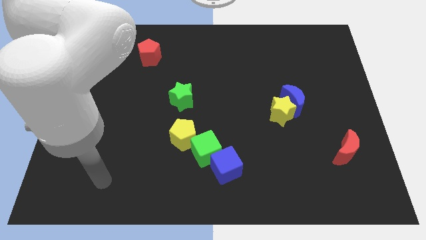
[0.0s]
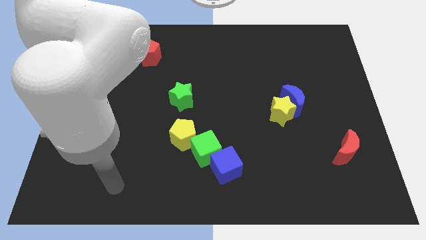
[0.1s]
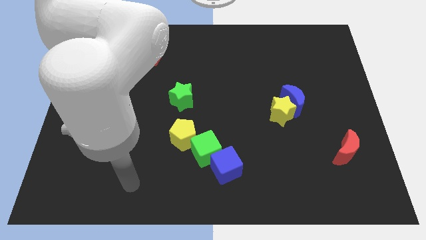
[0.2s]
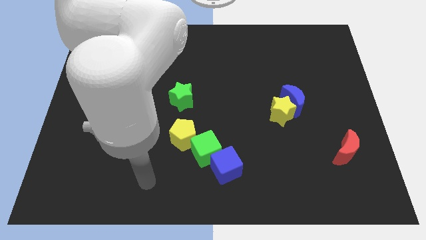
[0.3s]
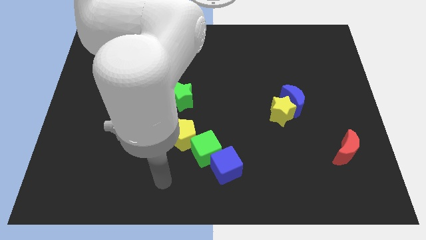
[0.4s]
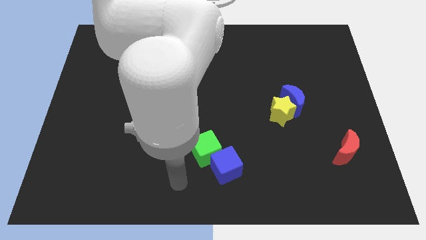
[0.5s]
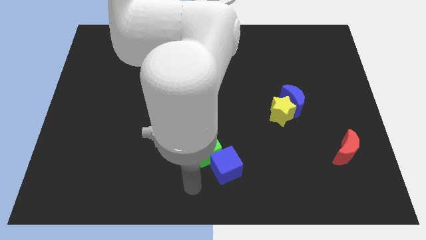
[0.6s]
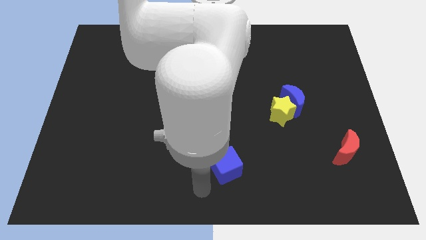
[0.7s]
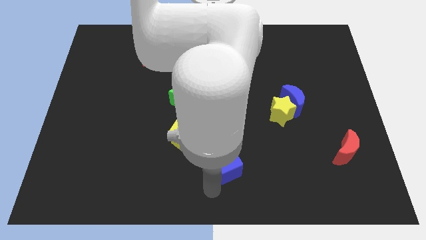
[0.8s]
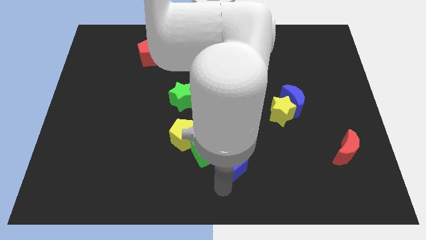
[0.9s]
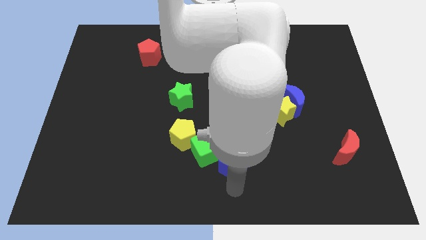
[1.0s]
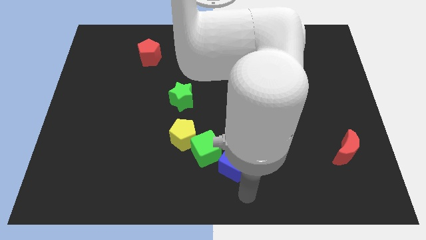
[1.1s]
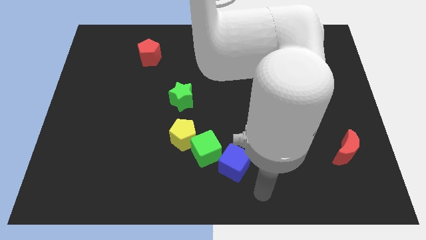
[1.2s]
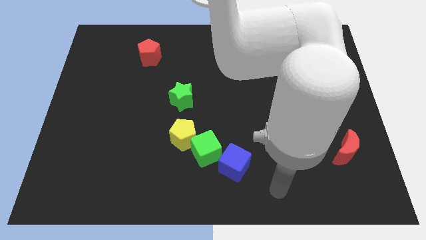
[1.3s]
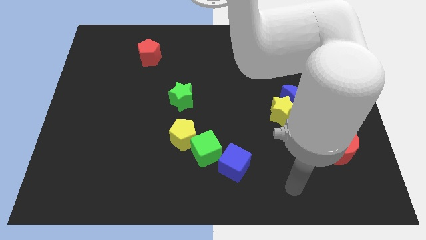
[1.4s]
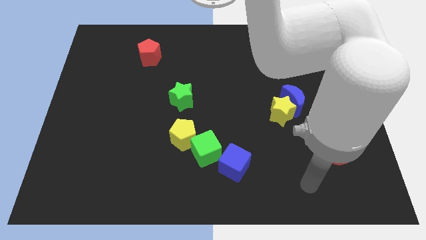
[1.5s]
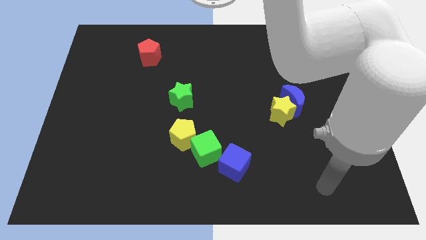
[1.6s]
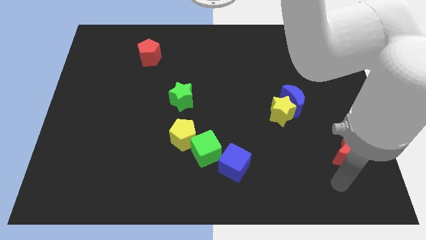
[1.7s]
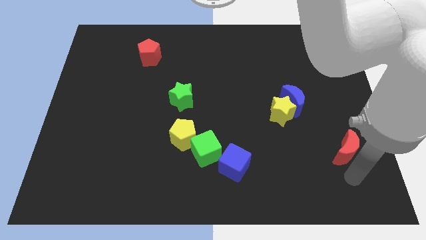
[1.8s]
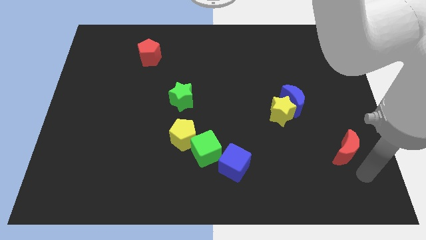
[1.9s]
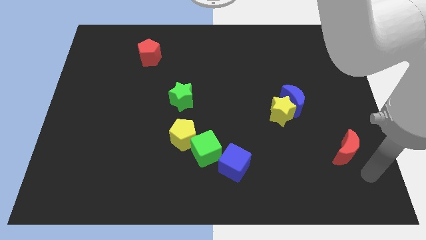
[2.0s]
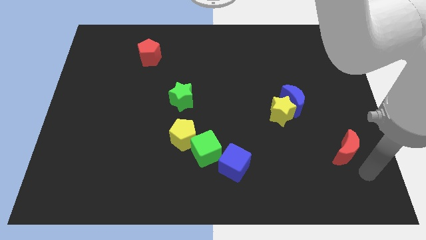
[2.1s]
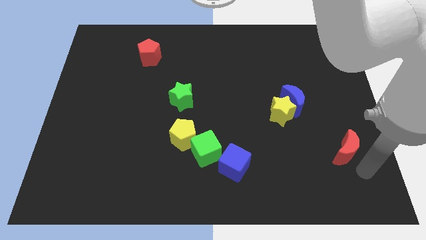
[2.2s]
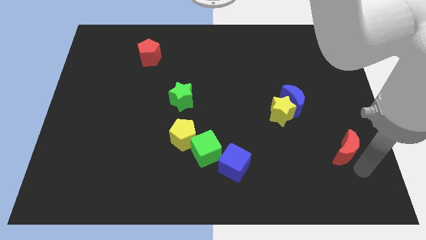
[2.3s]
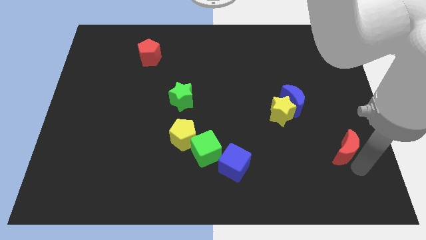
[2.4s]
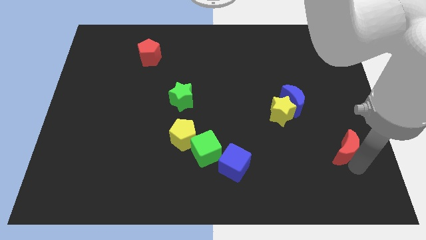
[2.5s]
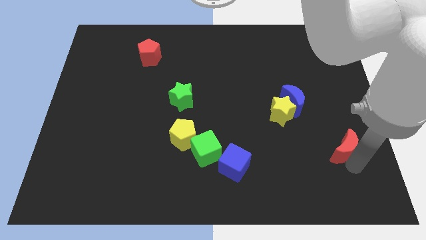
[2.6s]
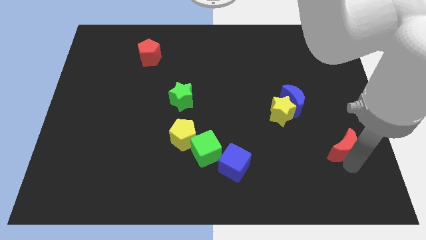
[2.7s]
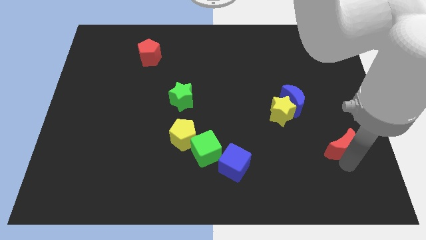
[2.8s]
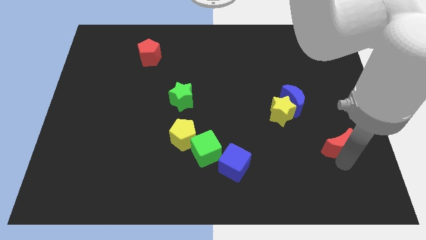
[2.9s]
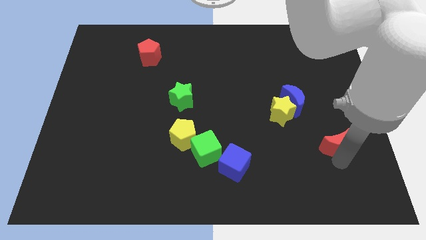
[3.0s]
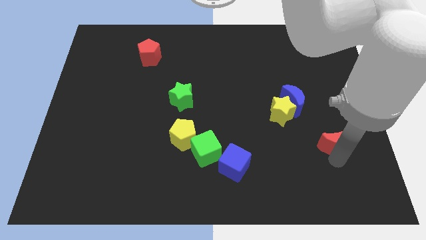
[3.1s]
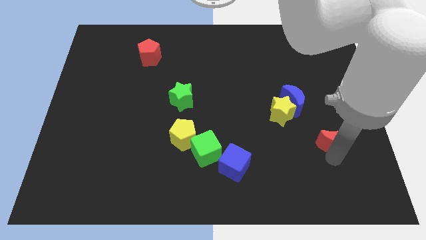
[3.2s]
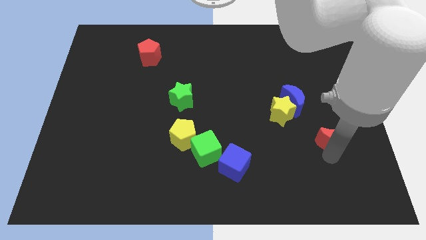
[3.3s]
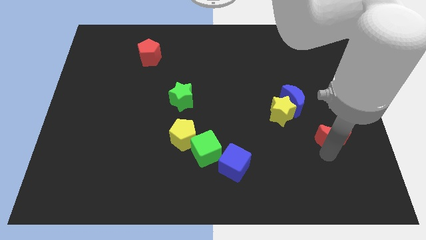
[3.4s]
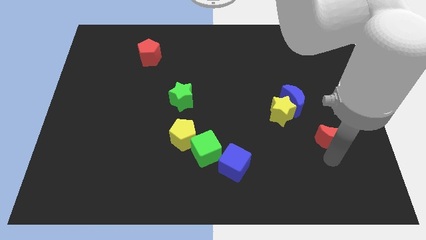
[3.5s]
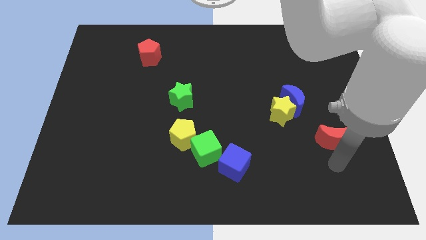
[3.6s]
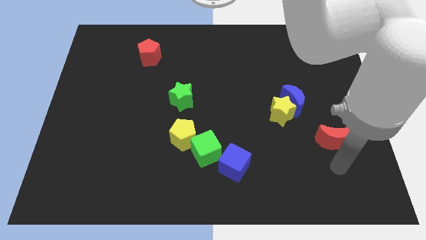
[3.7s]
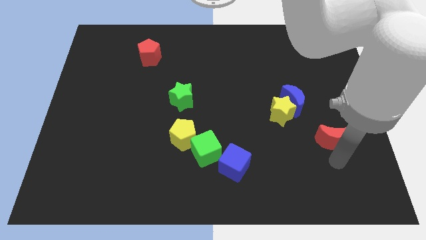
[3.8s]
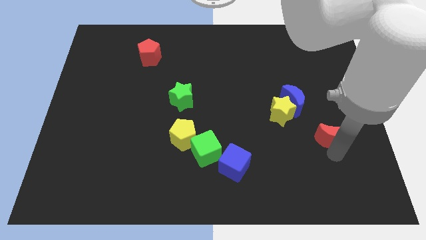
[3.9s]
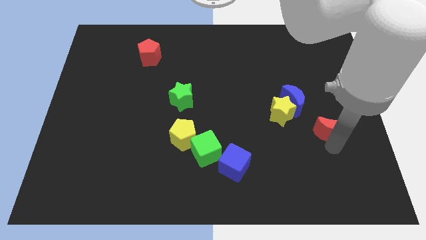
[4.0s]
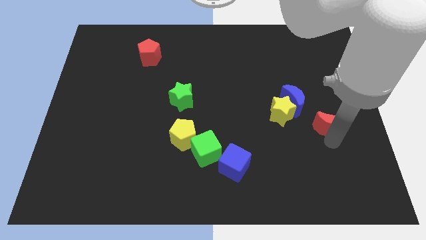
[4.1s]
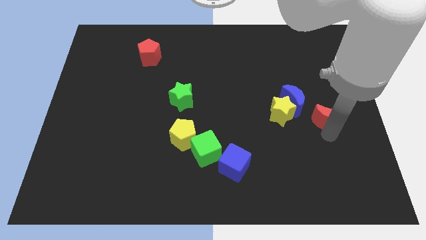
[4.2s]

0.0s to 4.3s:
push the red moon up slightly

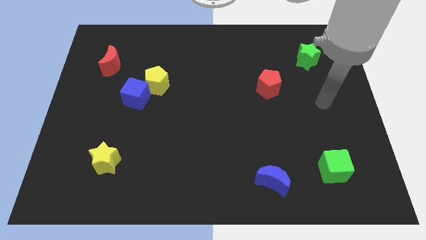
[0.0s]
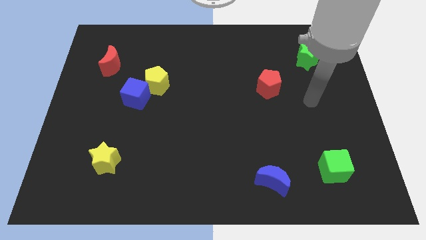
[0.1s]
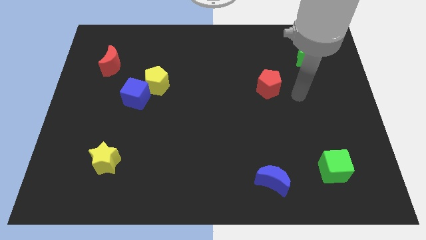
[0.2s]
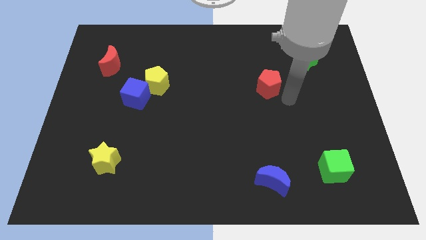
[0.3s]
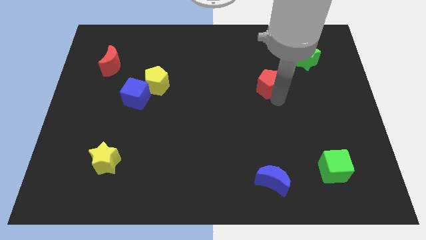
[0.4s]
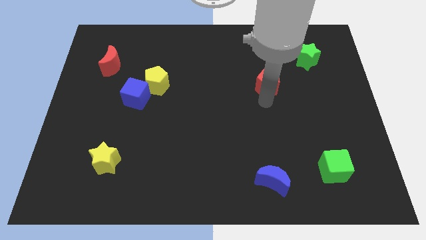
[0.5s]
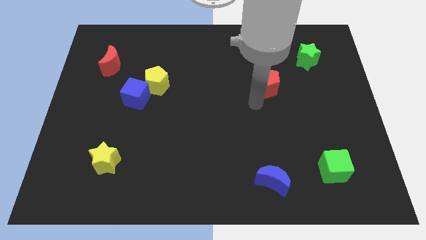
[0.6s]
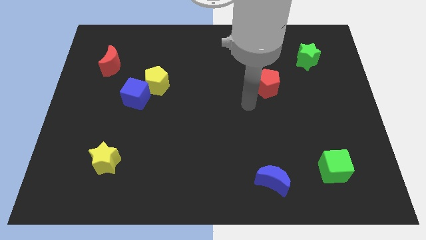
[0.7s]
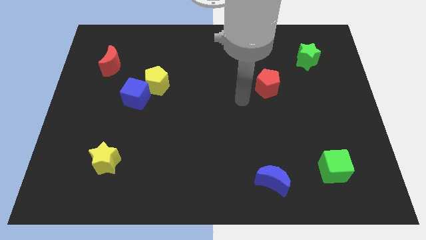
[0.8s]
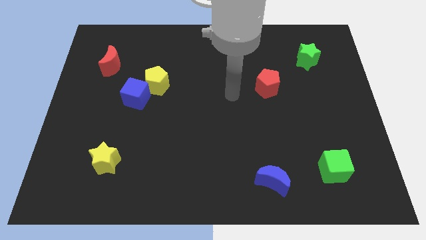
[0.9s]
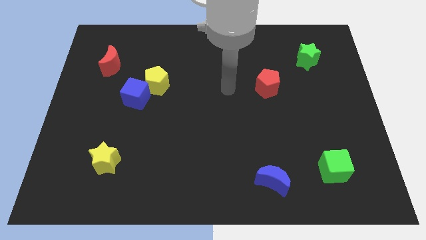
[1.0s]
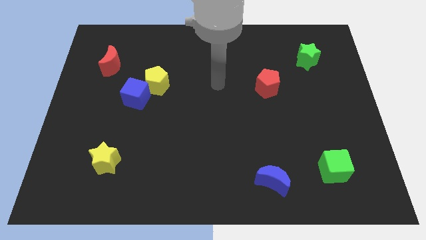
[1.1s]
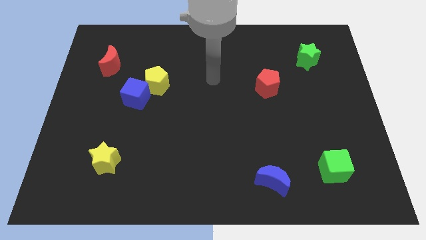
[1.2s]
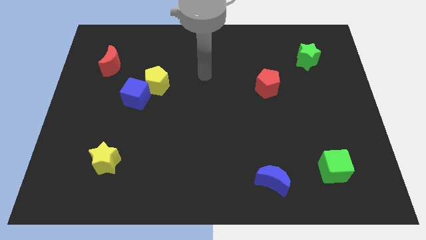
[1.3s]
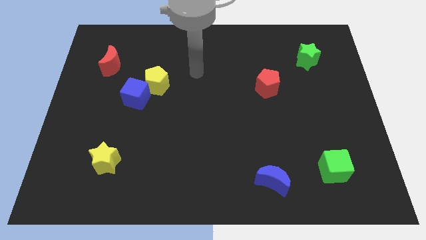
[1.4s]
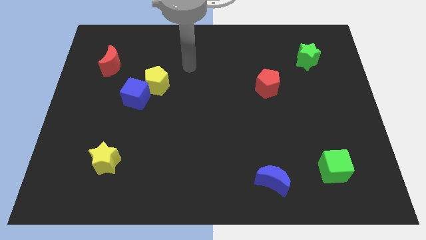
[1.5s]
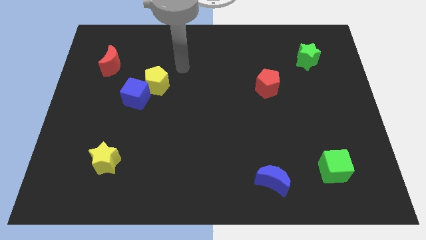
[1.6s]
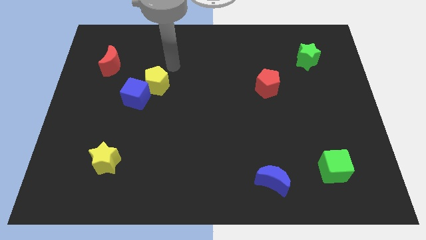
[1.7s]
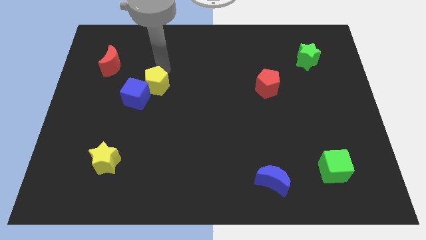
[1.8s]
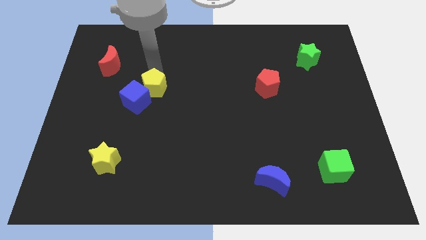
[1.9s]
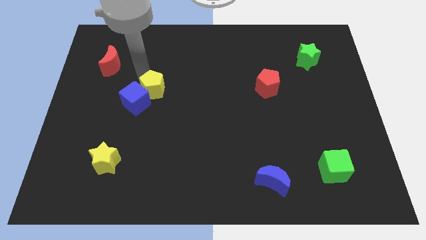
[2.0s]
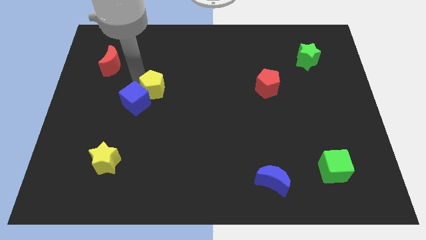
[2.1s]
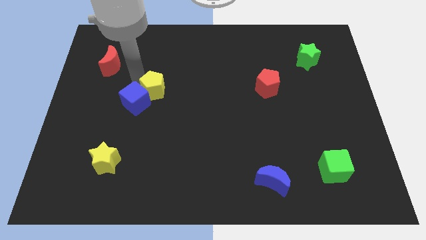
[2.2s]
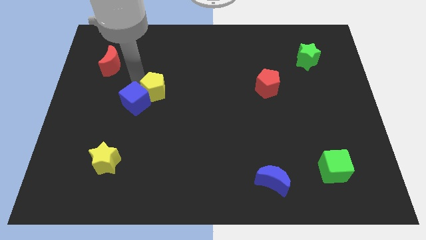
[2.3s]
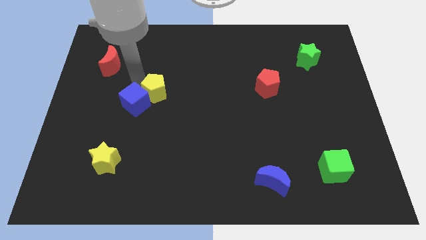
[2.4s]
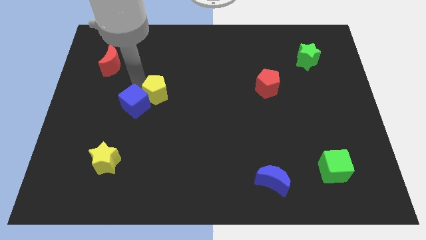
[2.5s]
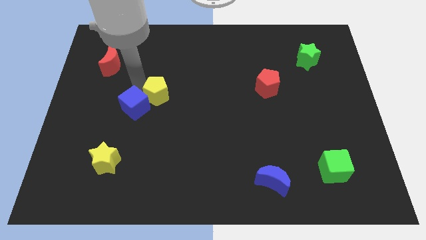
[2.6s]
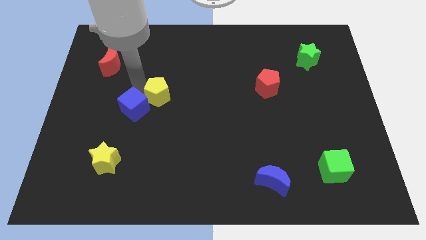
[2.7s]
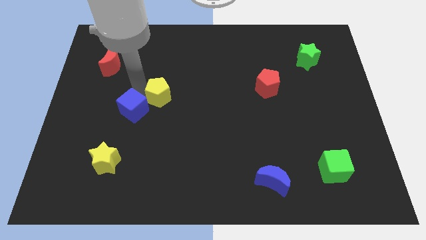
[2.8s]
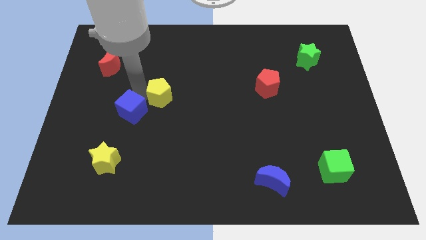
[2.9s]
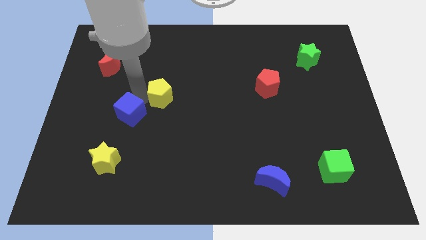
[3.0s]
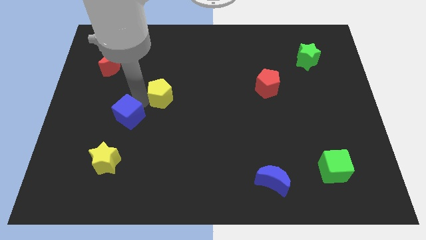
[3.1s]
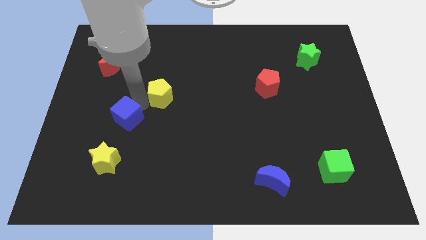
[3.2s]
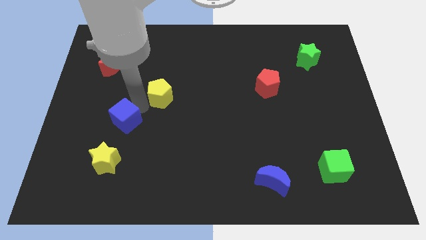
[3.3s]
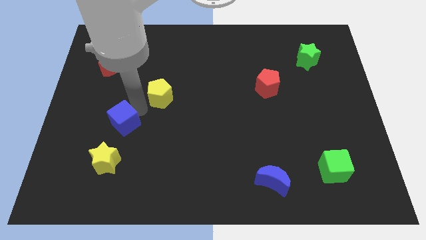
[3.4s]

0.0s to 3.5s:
push the blue cube down a little bit

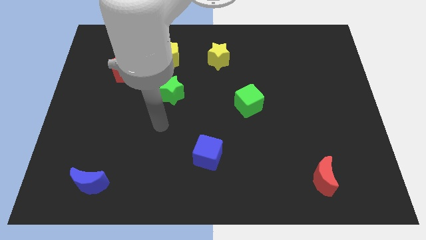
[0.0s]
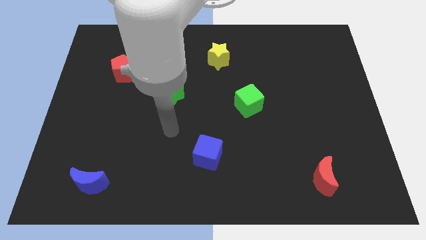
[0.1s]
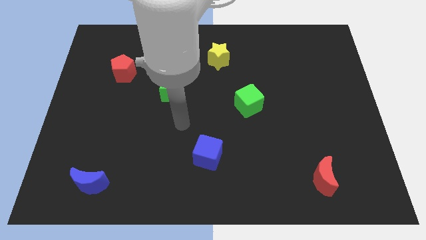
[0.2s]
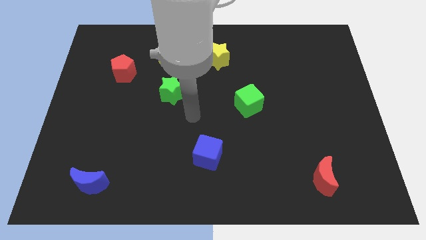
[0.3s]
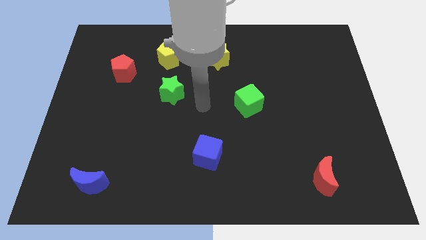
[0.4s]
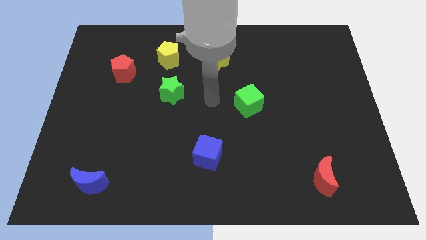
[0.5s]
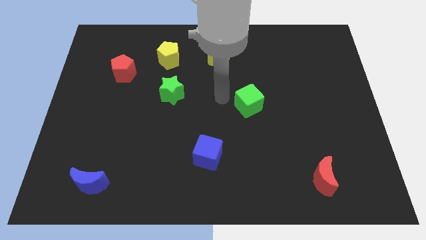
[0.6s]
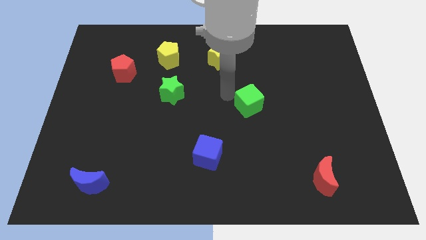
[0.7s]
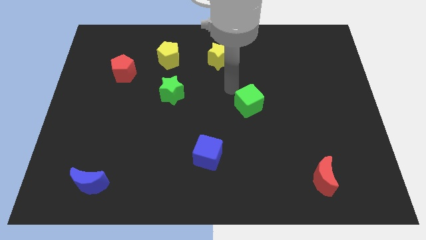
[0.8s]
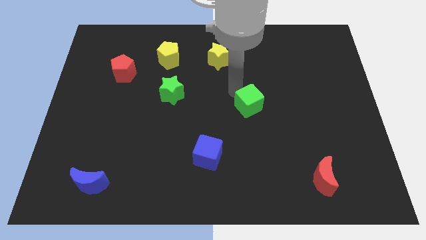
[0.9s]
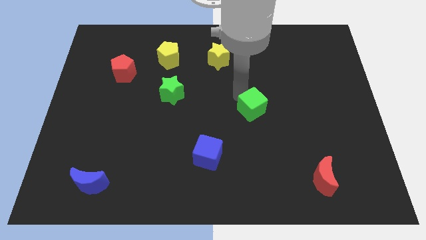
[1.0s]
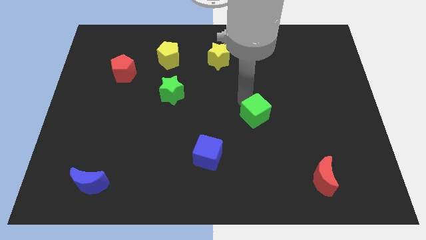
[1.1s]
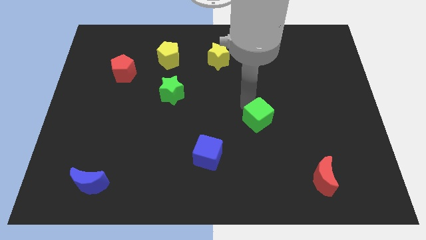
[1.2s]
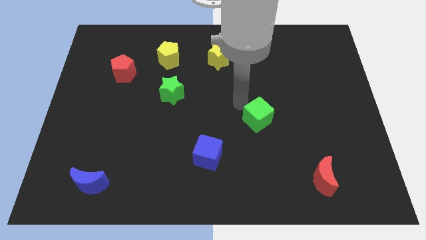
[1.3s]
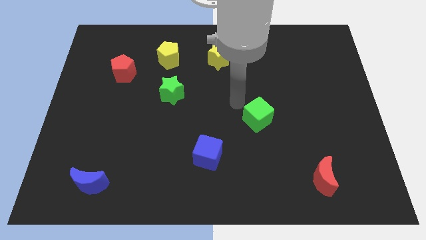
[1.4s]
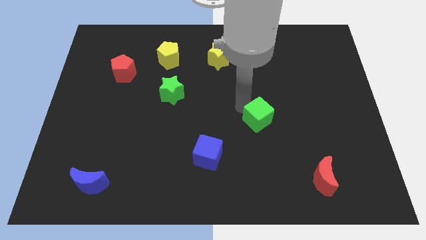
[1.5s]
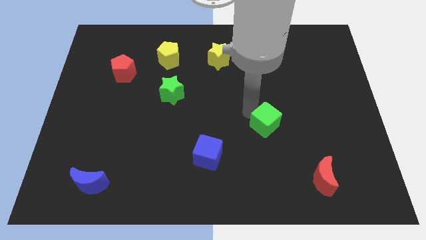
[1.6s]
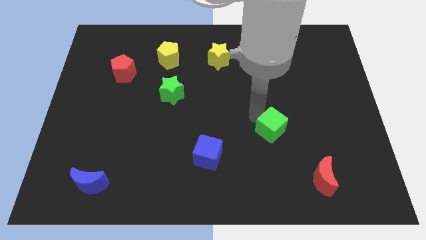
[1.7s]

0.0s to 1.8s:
slightly push the green cube diagonally down and right
